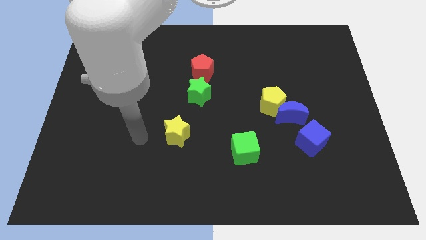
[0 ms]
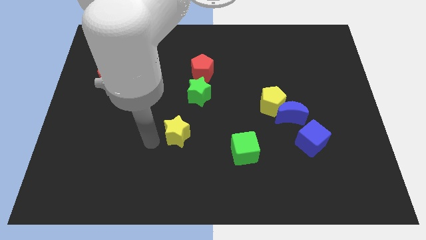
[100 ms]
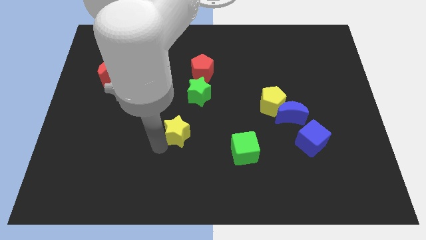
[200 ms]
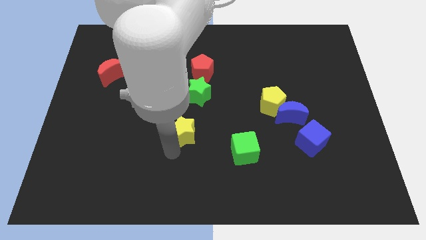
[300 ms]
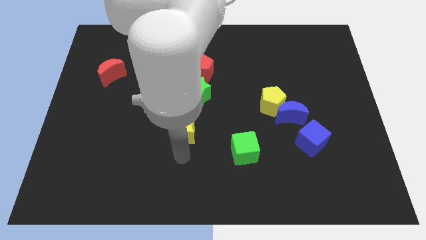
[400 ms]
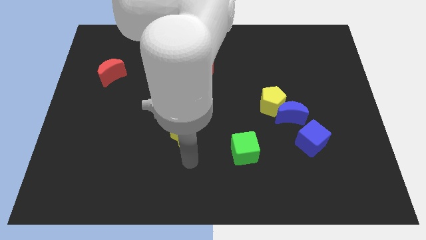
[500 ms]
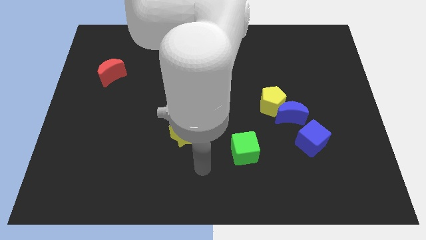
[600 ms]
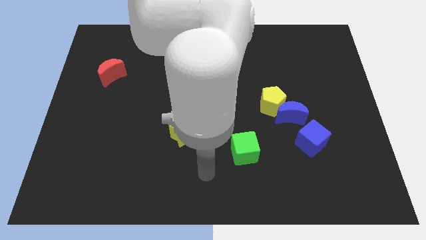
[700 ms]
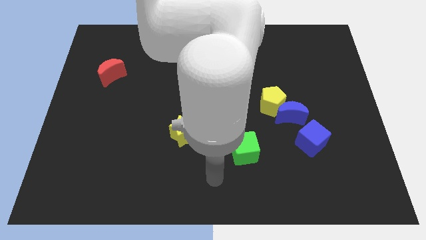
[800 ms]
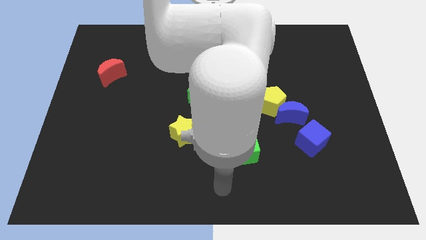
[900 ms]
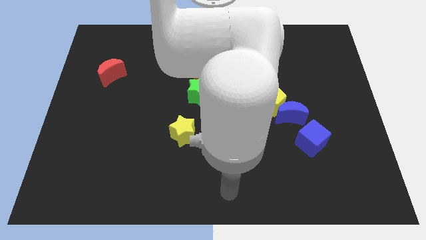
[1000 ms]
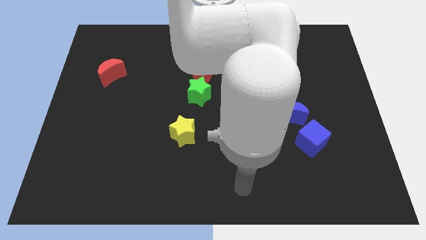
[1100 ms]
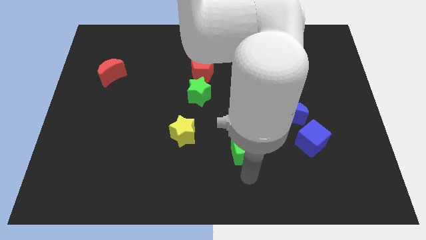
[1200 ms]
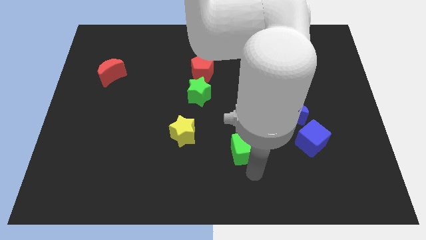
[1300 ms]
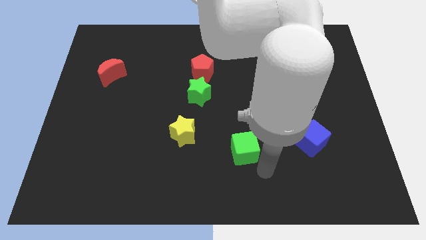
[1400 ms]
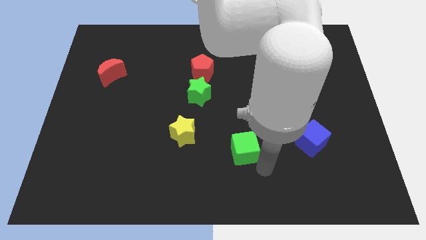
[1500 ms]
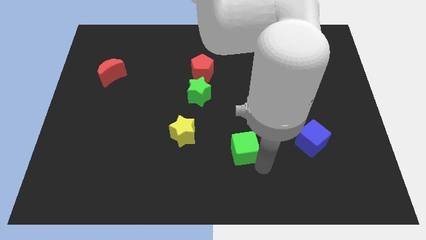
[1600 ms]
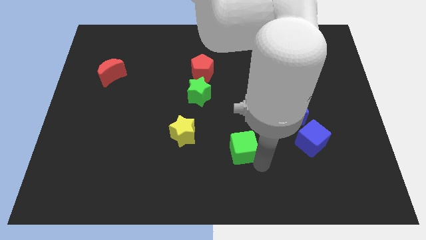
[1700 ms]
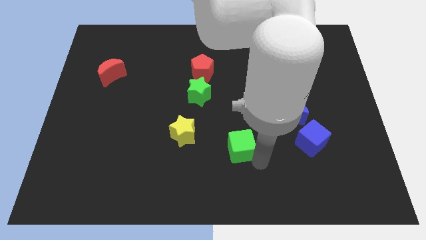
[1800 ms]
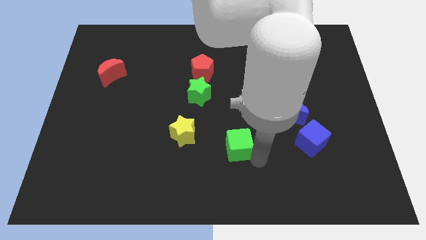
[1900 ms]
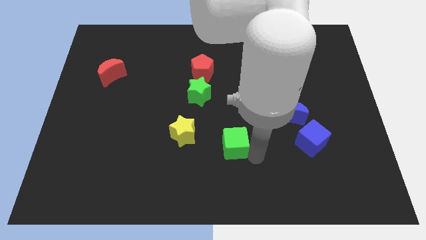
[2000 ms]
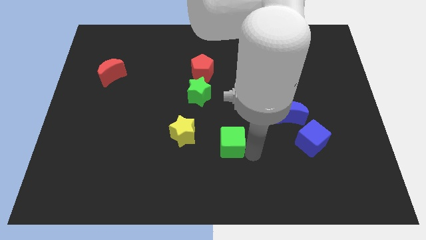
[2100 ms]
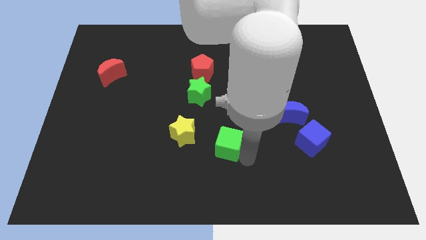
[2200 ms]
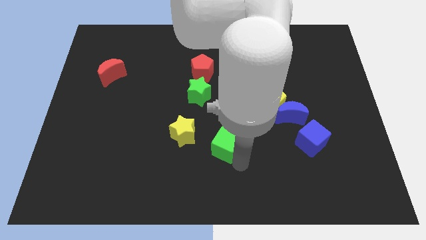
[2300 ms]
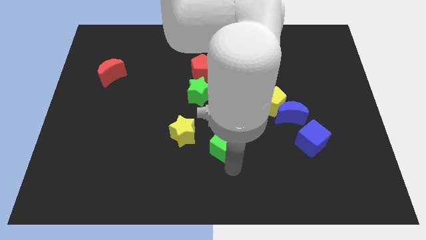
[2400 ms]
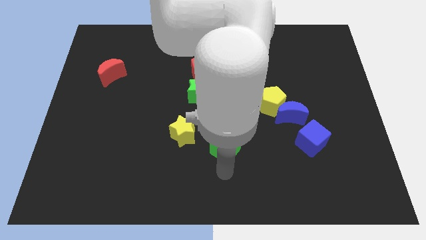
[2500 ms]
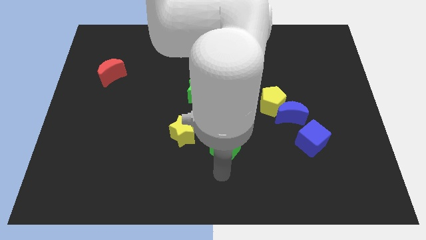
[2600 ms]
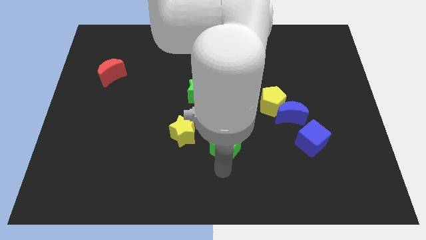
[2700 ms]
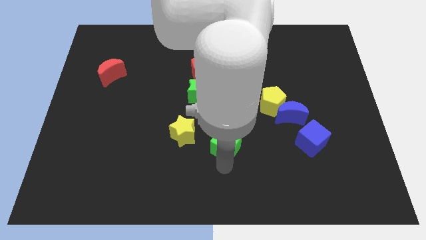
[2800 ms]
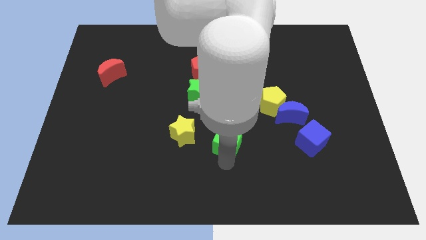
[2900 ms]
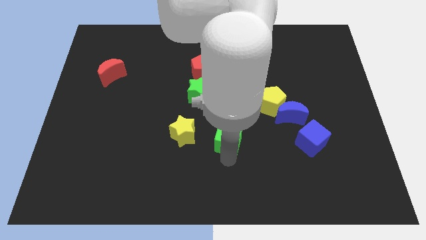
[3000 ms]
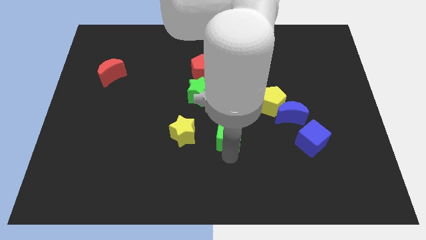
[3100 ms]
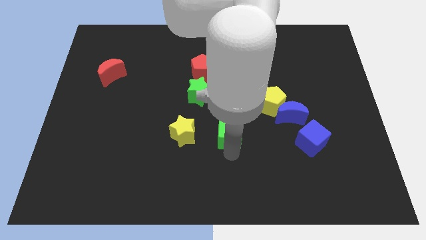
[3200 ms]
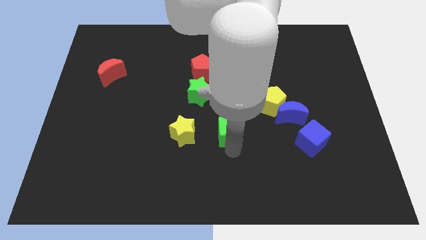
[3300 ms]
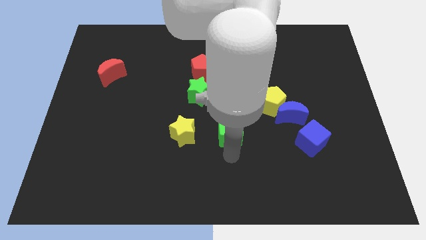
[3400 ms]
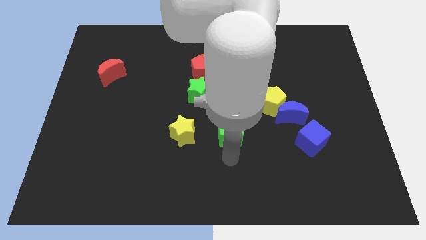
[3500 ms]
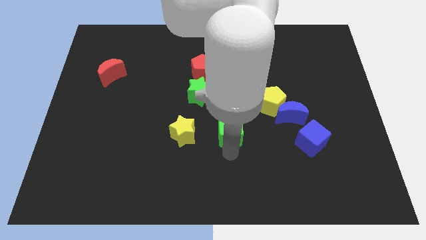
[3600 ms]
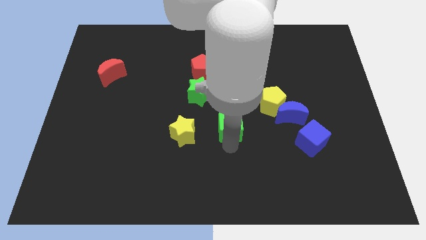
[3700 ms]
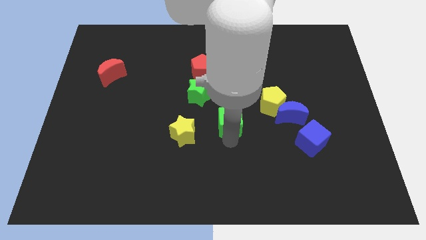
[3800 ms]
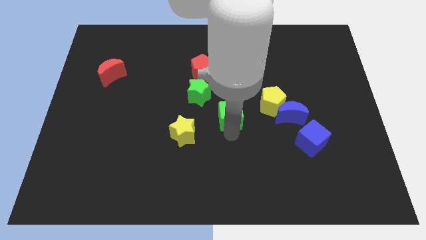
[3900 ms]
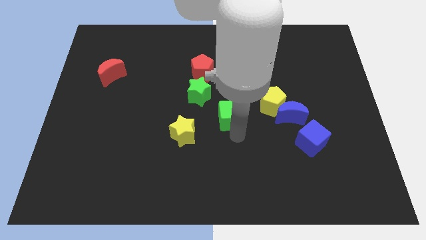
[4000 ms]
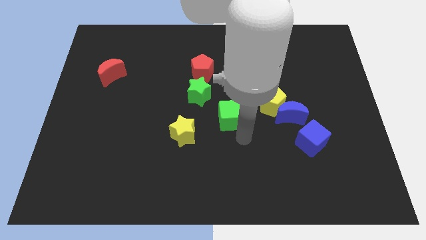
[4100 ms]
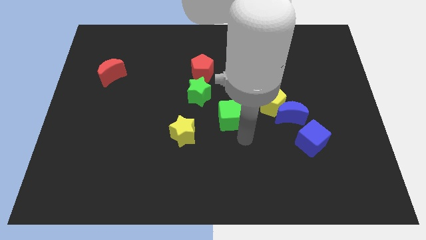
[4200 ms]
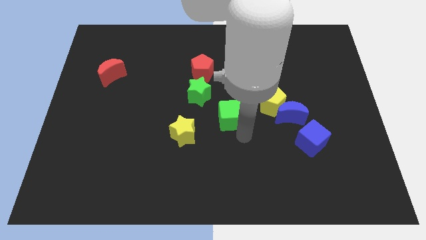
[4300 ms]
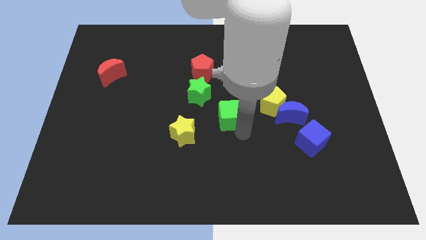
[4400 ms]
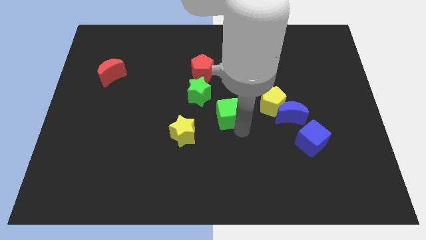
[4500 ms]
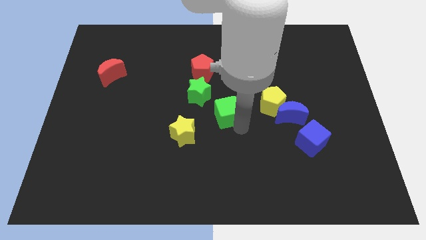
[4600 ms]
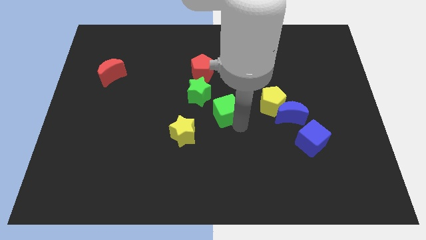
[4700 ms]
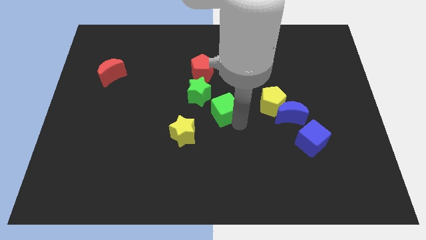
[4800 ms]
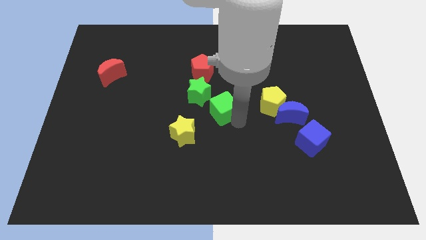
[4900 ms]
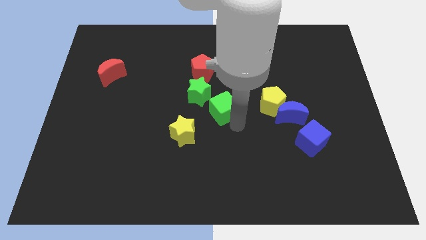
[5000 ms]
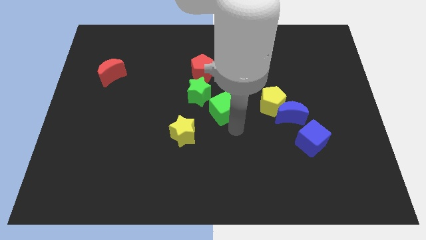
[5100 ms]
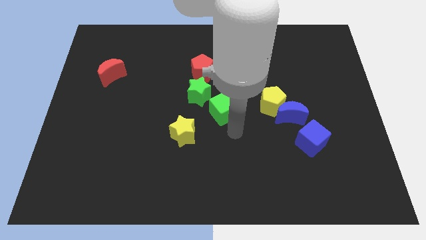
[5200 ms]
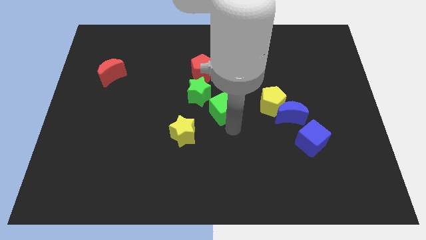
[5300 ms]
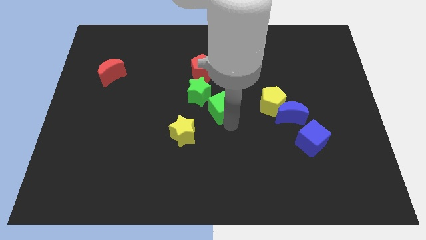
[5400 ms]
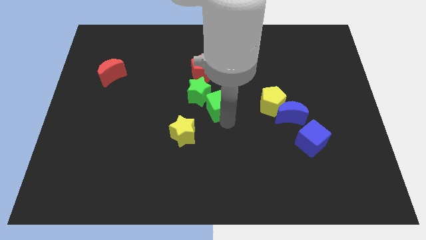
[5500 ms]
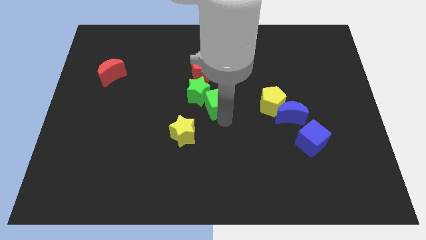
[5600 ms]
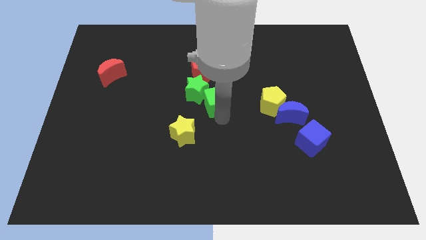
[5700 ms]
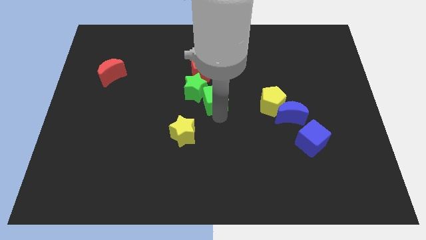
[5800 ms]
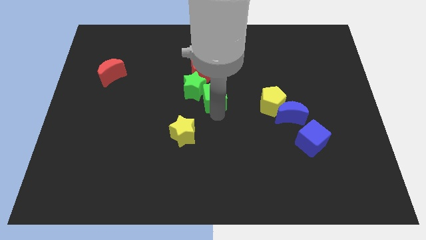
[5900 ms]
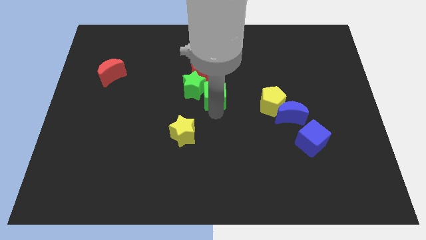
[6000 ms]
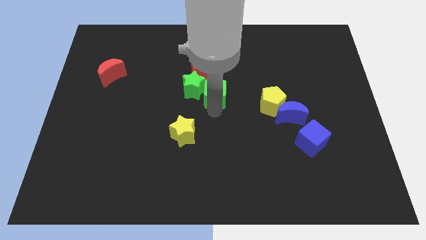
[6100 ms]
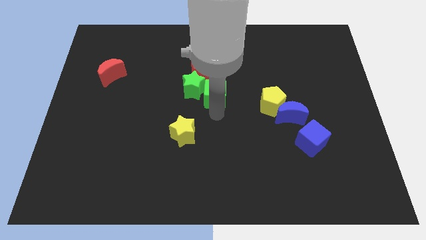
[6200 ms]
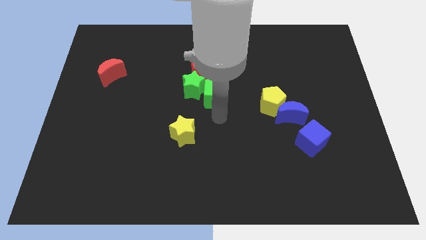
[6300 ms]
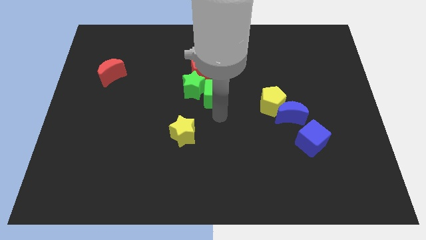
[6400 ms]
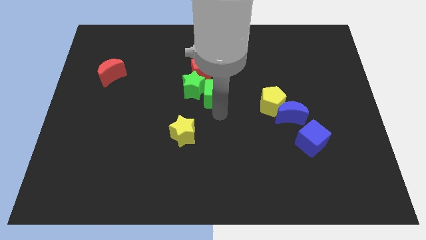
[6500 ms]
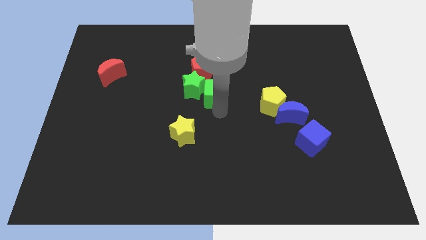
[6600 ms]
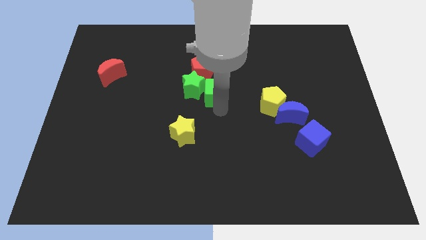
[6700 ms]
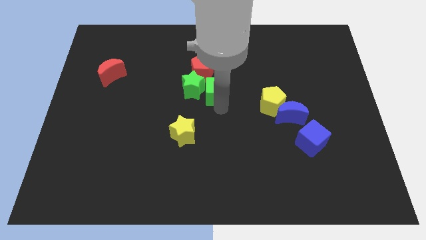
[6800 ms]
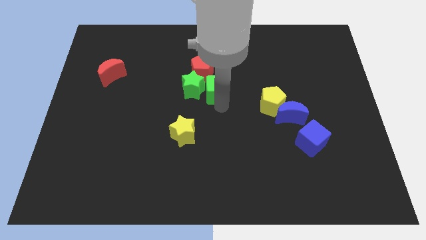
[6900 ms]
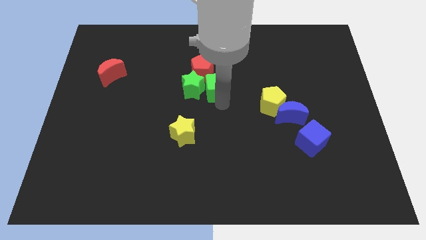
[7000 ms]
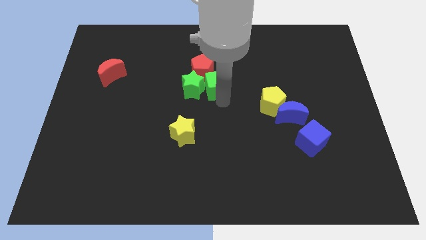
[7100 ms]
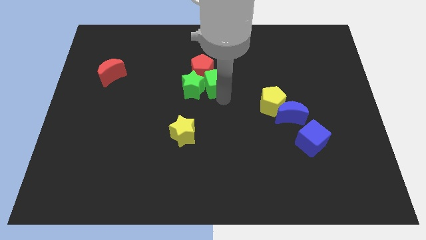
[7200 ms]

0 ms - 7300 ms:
put the green cube towards the red pentagon
